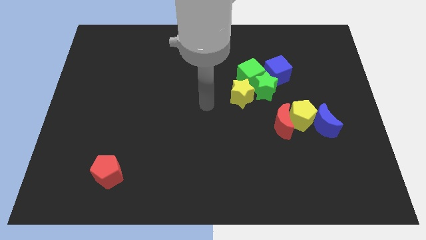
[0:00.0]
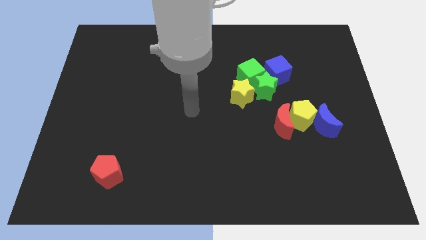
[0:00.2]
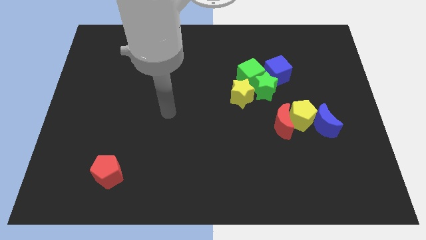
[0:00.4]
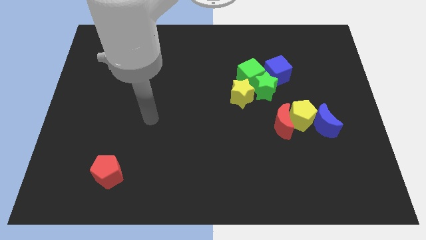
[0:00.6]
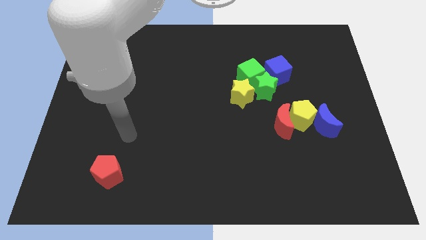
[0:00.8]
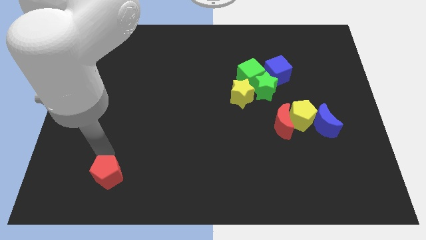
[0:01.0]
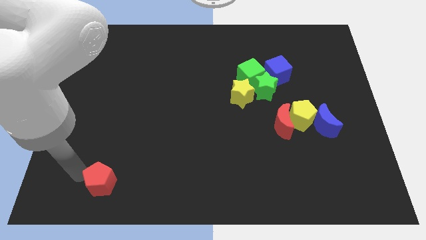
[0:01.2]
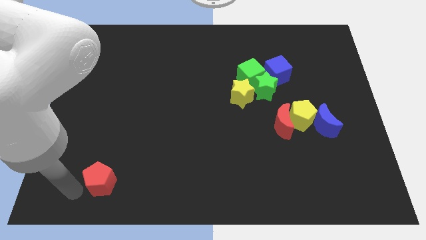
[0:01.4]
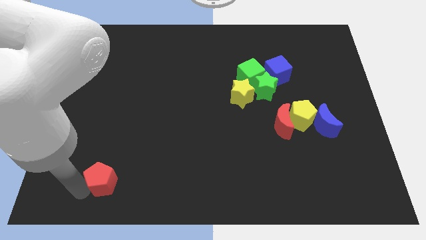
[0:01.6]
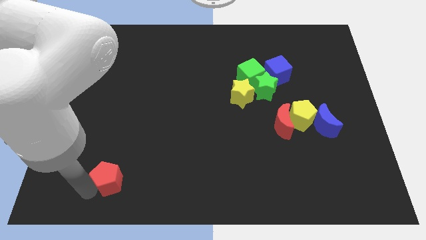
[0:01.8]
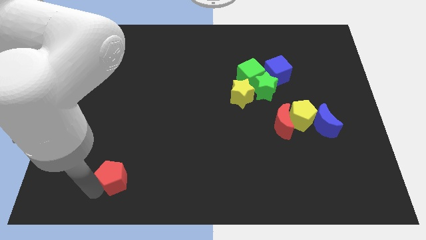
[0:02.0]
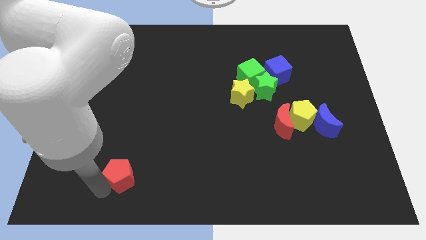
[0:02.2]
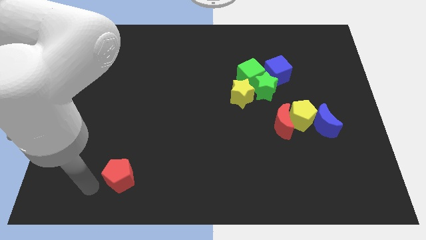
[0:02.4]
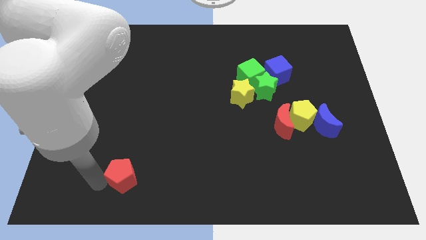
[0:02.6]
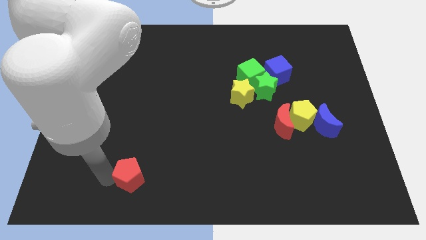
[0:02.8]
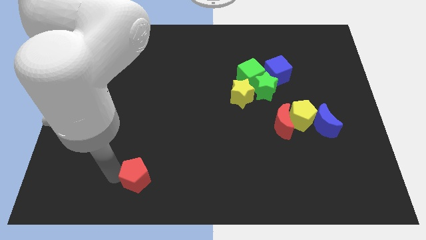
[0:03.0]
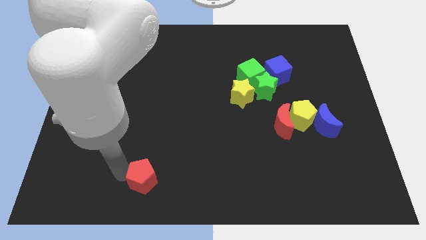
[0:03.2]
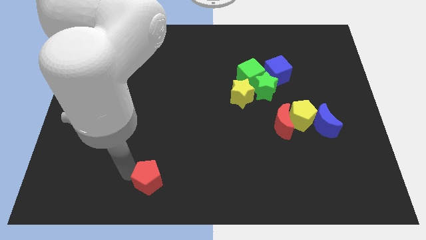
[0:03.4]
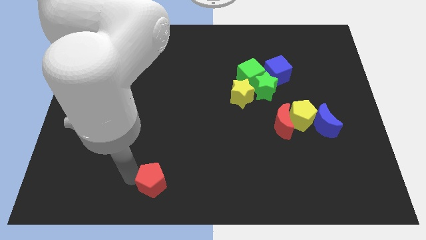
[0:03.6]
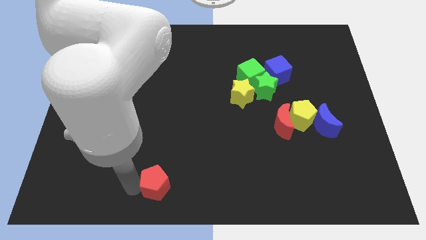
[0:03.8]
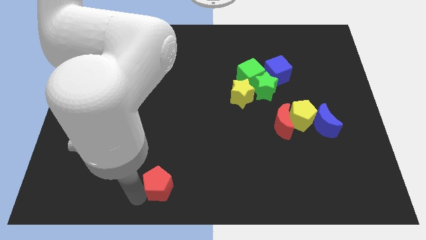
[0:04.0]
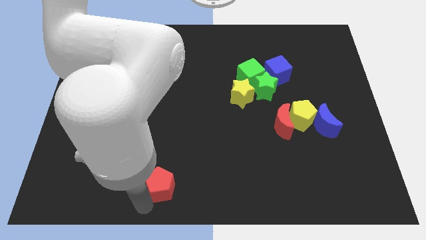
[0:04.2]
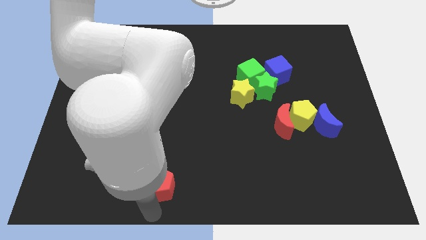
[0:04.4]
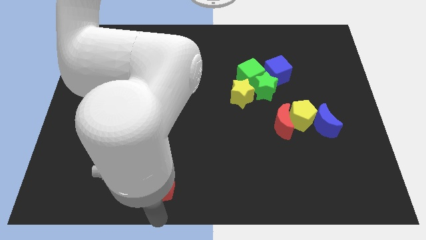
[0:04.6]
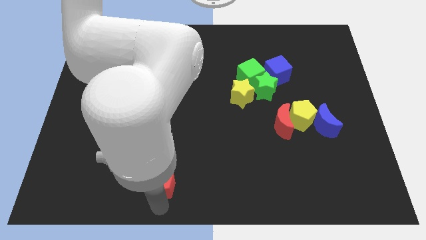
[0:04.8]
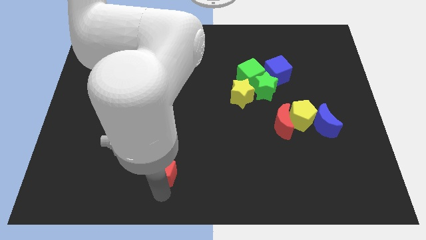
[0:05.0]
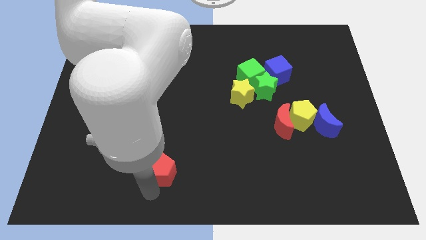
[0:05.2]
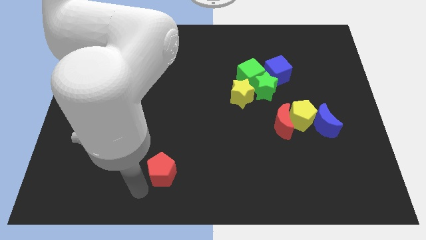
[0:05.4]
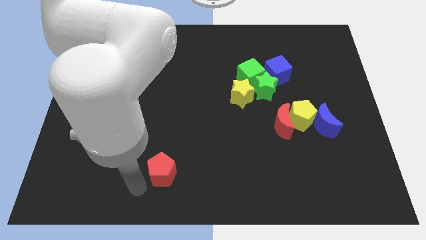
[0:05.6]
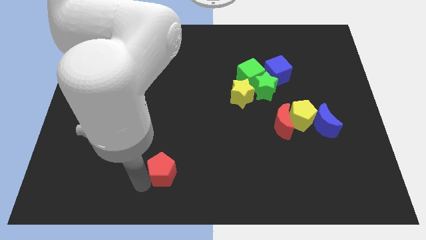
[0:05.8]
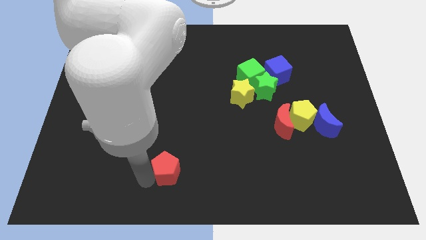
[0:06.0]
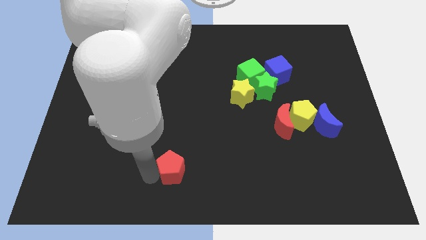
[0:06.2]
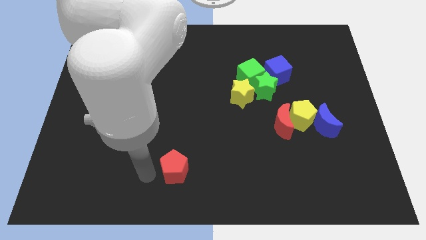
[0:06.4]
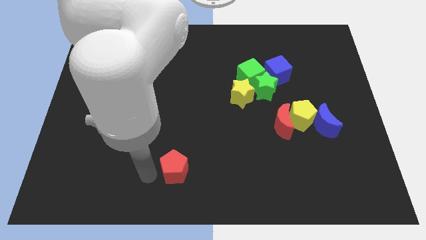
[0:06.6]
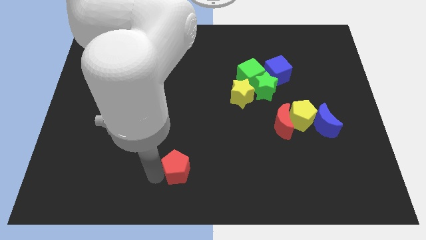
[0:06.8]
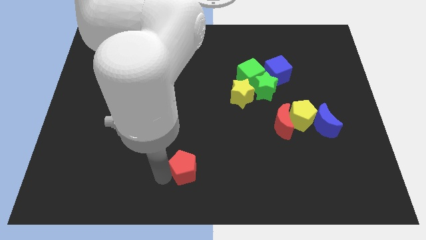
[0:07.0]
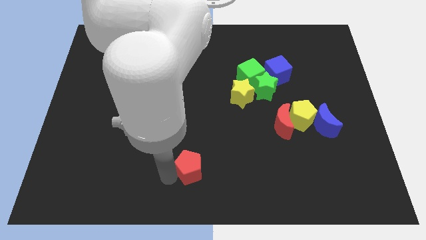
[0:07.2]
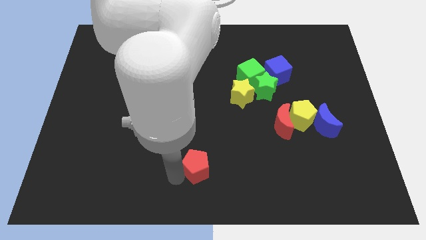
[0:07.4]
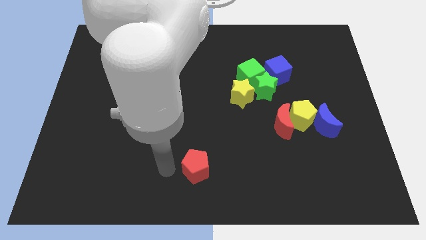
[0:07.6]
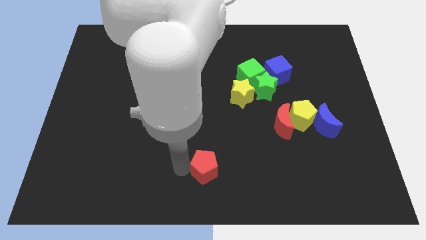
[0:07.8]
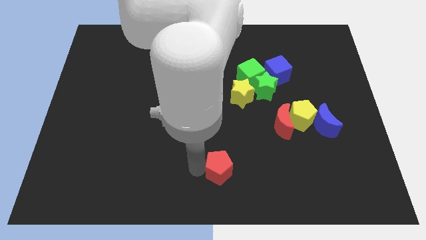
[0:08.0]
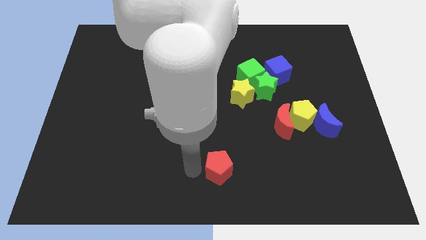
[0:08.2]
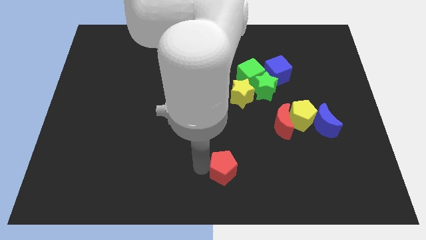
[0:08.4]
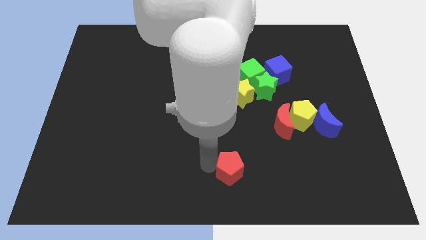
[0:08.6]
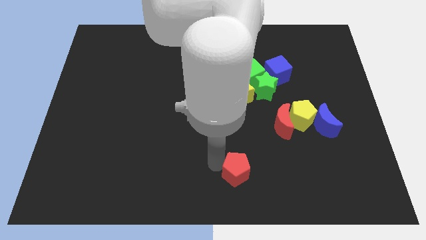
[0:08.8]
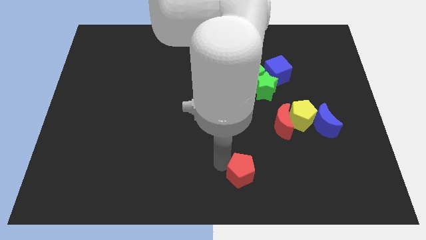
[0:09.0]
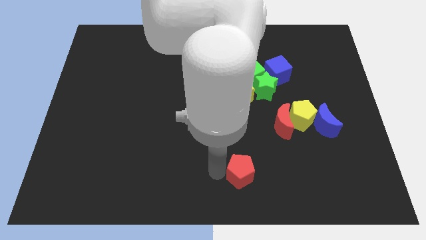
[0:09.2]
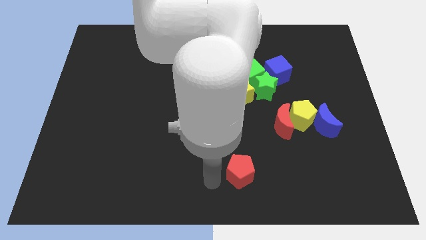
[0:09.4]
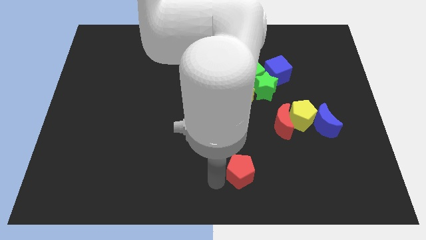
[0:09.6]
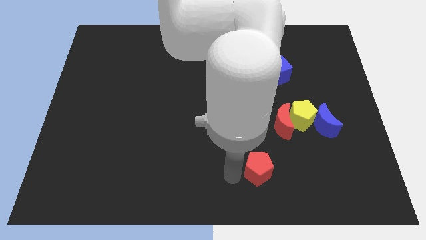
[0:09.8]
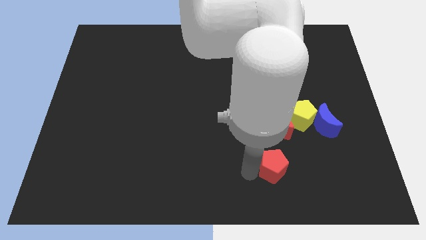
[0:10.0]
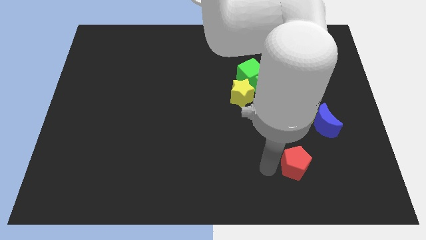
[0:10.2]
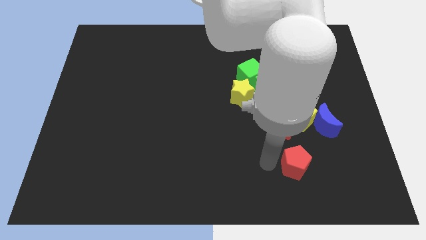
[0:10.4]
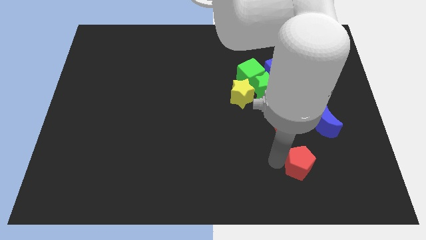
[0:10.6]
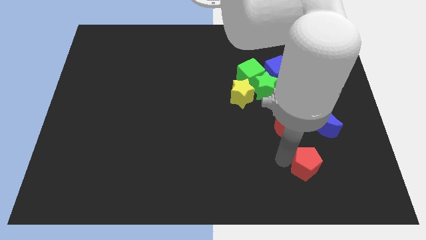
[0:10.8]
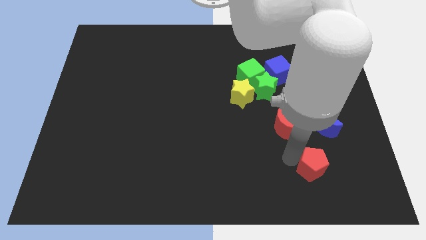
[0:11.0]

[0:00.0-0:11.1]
move the red pentagon to the bottom of the blue moon
